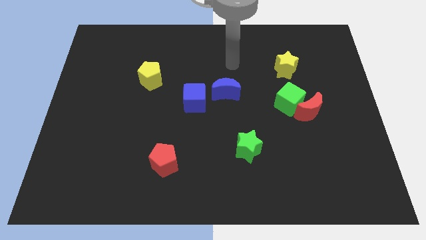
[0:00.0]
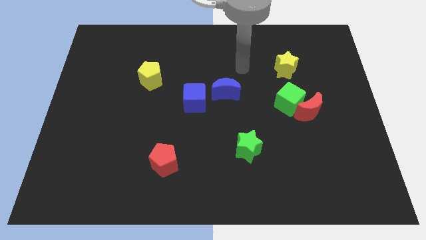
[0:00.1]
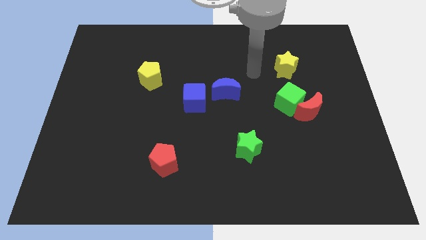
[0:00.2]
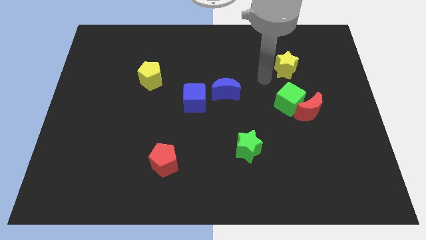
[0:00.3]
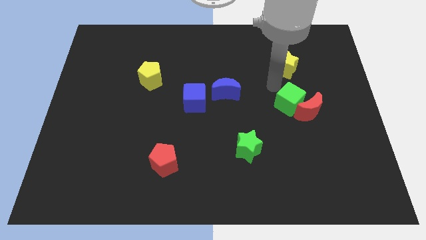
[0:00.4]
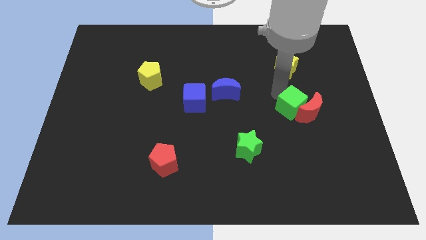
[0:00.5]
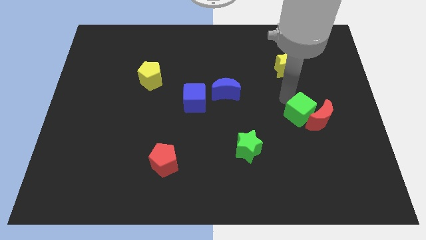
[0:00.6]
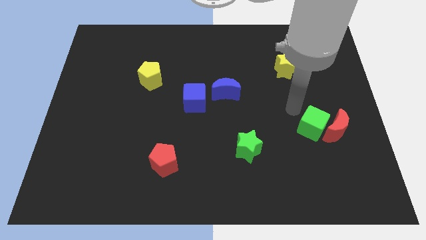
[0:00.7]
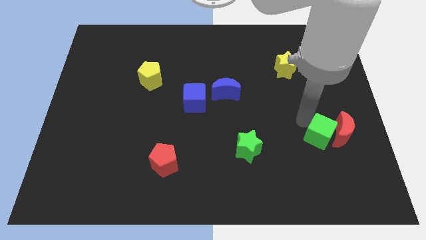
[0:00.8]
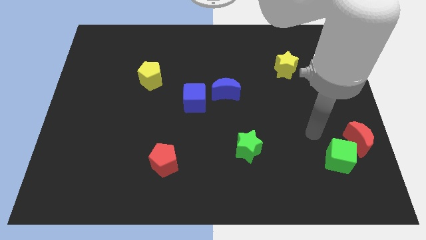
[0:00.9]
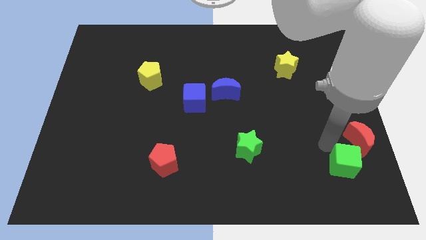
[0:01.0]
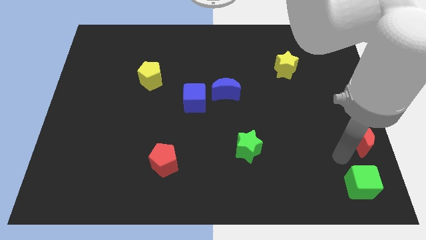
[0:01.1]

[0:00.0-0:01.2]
separate the red moon from the green cube

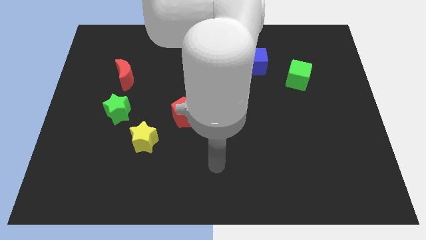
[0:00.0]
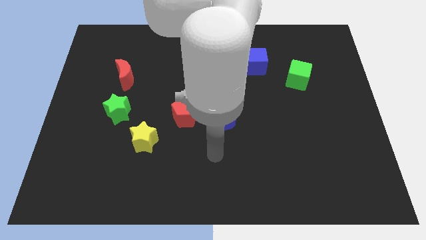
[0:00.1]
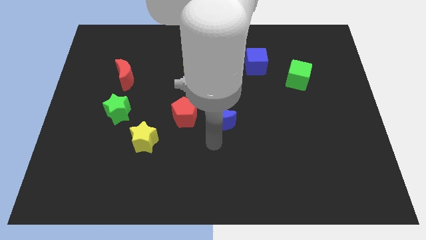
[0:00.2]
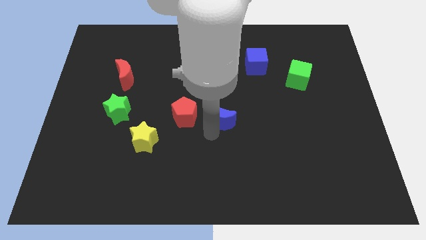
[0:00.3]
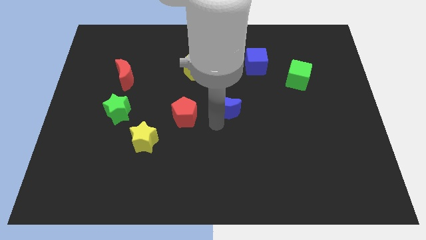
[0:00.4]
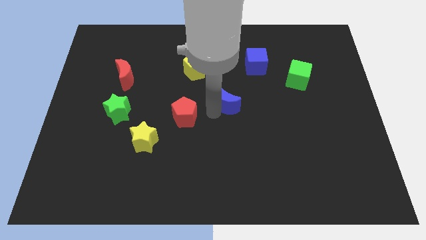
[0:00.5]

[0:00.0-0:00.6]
pull the red pentagon apart from the blue moon

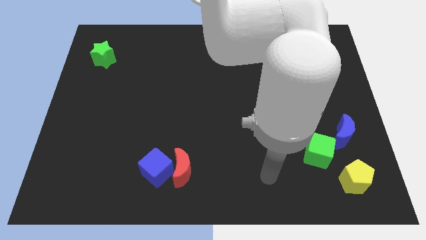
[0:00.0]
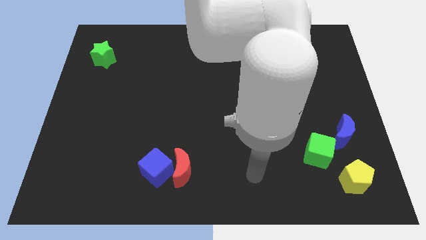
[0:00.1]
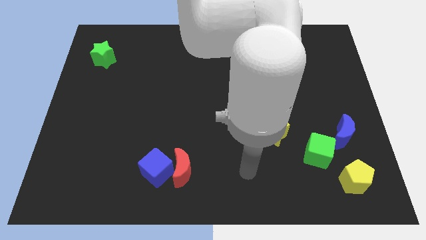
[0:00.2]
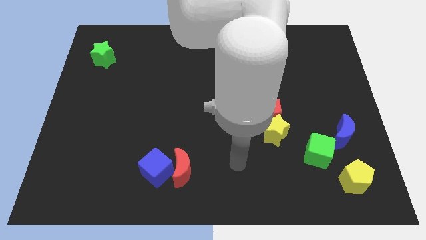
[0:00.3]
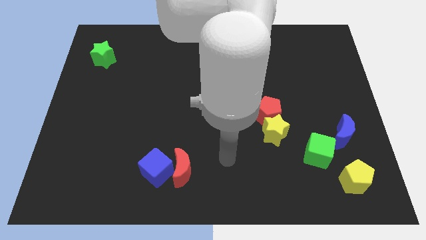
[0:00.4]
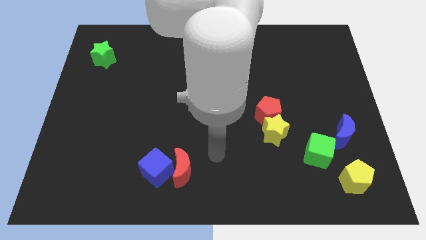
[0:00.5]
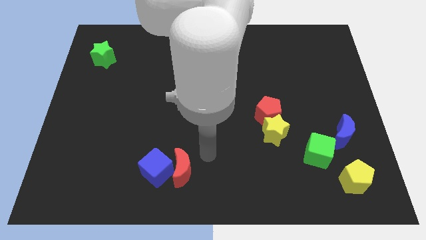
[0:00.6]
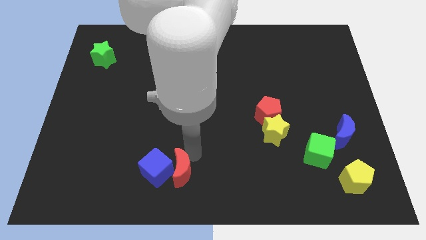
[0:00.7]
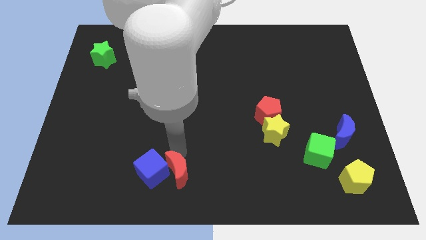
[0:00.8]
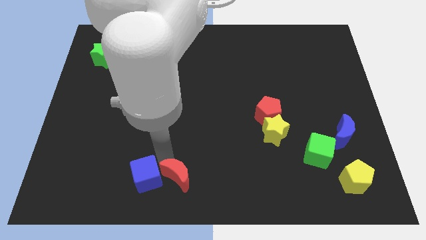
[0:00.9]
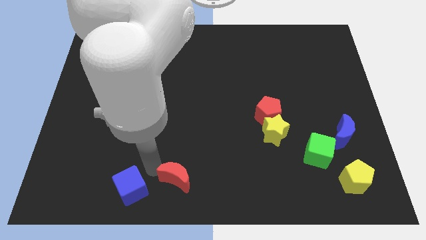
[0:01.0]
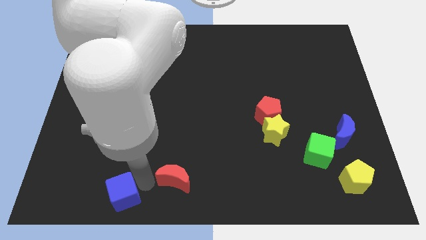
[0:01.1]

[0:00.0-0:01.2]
separate the red moon from the blue cube

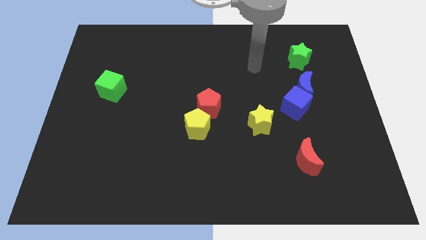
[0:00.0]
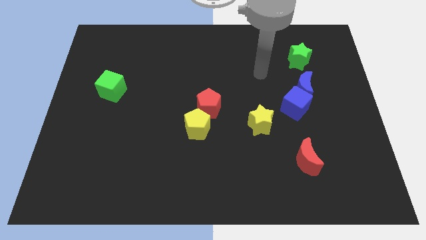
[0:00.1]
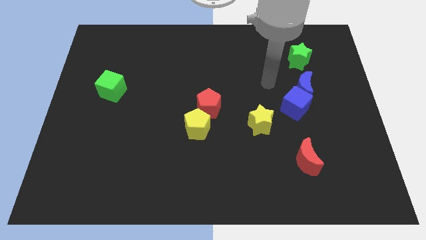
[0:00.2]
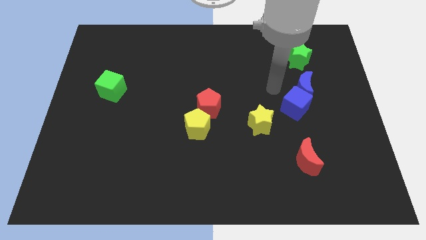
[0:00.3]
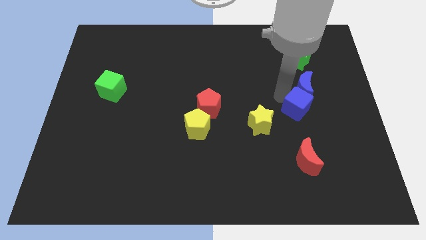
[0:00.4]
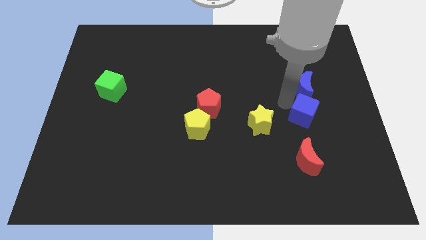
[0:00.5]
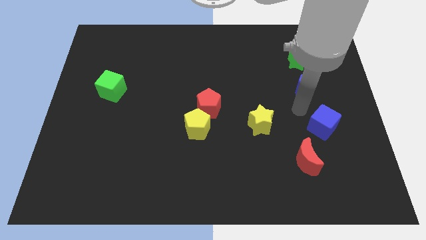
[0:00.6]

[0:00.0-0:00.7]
separate the blue moon from the blue cube

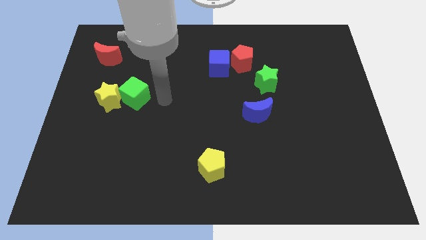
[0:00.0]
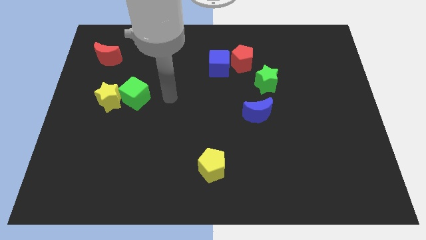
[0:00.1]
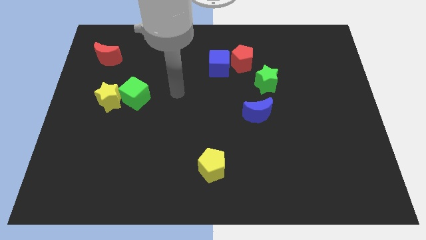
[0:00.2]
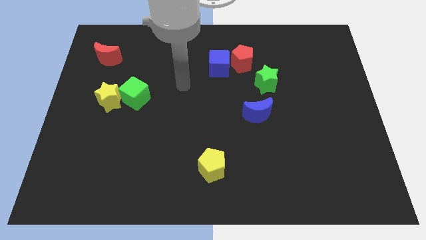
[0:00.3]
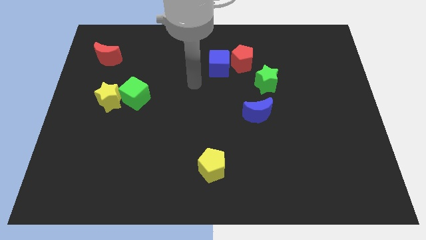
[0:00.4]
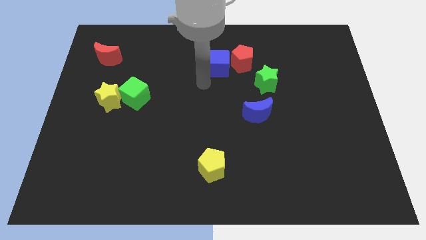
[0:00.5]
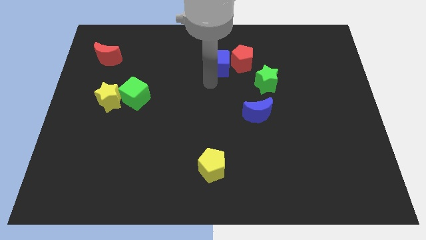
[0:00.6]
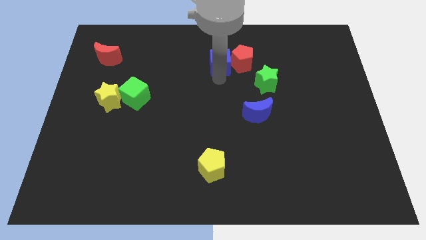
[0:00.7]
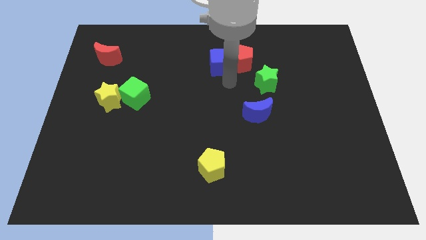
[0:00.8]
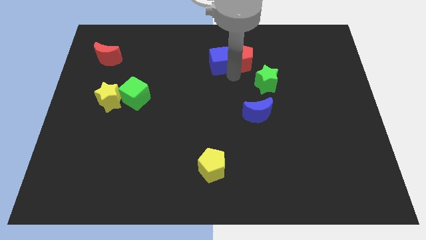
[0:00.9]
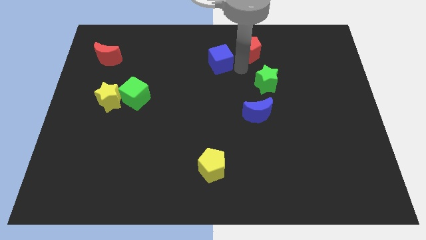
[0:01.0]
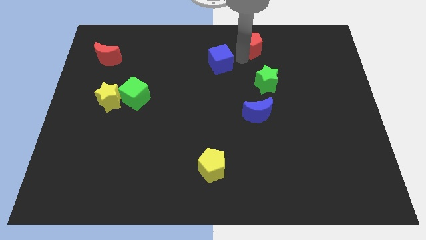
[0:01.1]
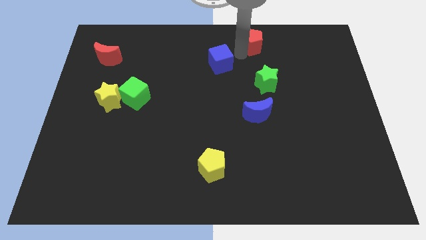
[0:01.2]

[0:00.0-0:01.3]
move the blue cube away from the red pentagon

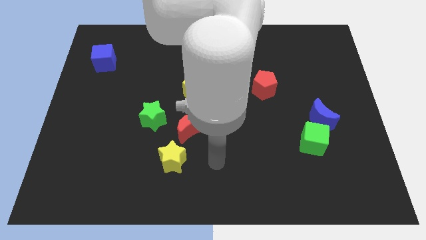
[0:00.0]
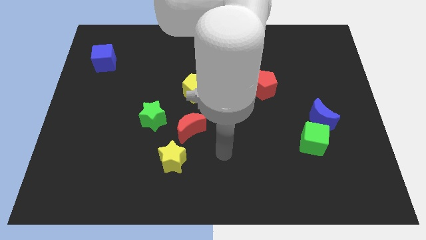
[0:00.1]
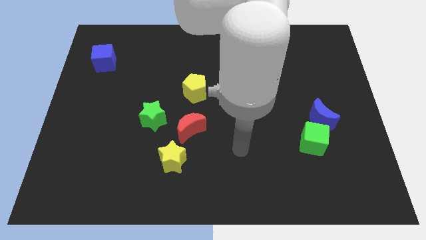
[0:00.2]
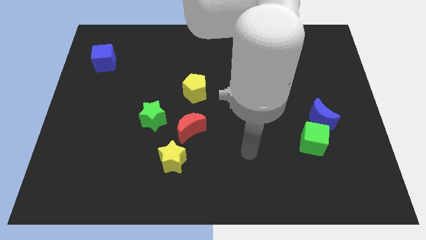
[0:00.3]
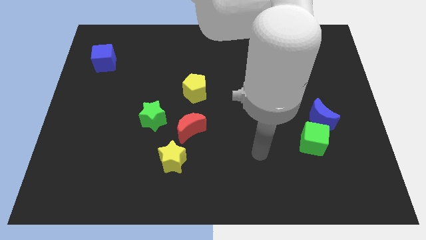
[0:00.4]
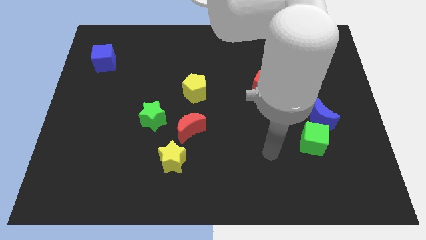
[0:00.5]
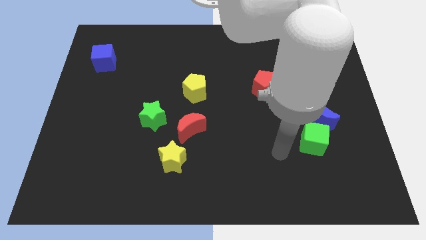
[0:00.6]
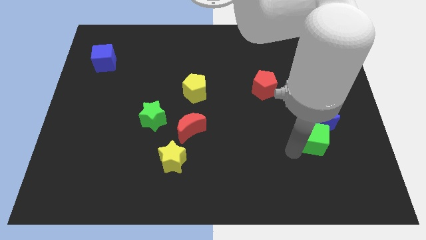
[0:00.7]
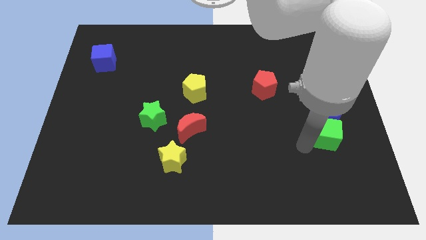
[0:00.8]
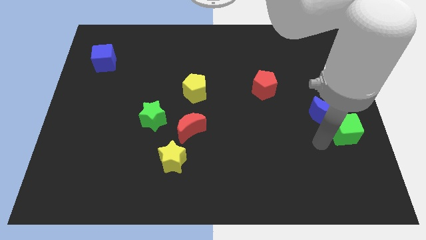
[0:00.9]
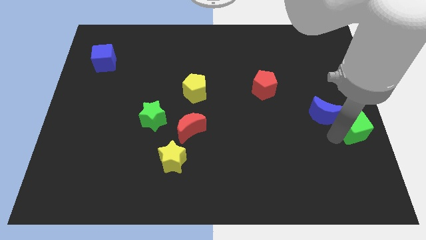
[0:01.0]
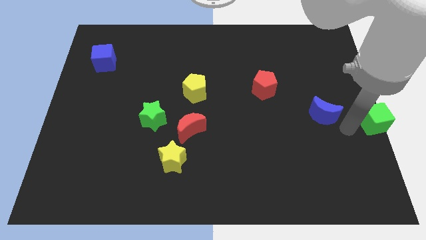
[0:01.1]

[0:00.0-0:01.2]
move the blue moon away from the green cube

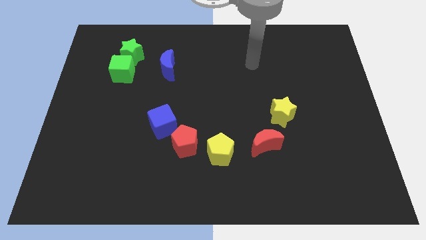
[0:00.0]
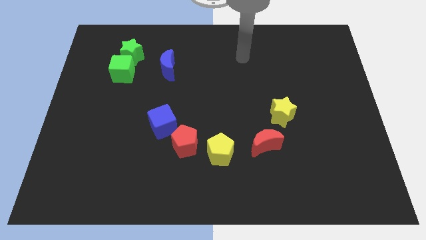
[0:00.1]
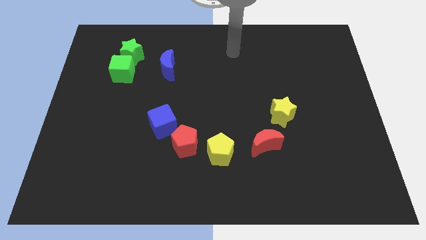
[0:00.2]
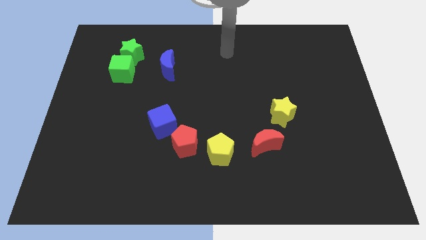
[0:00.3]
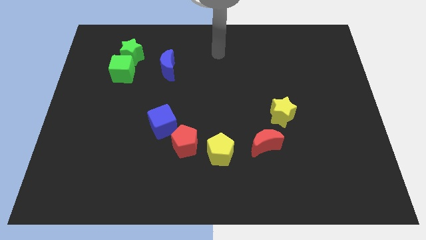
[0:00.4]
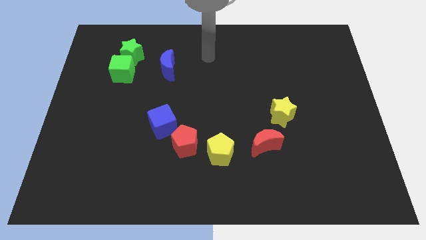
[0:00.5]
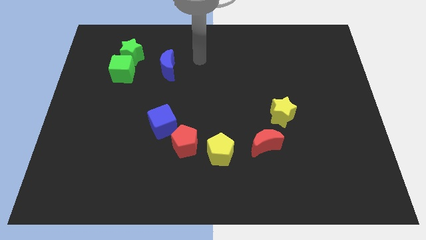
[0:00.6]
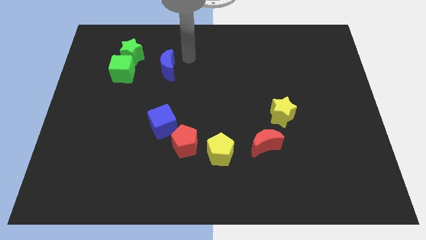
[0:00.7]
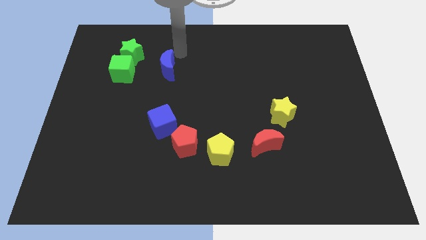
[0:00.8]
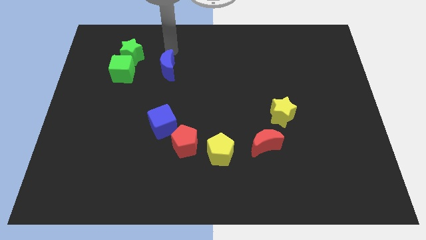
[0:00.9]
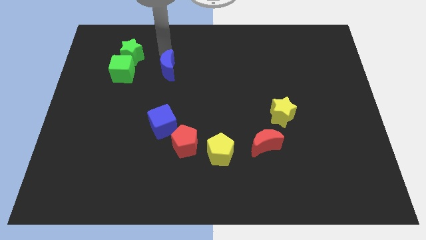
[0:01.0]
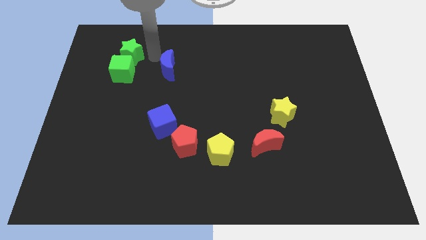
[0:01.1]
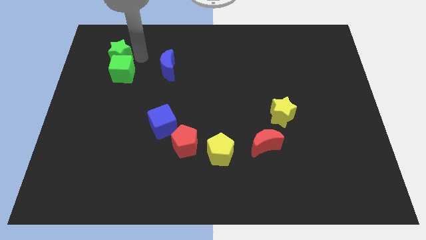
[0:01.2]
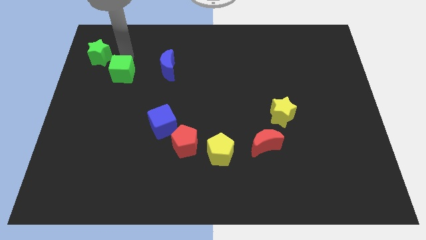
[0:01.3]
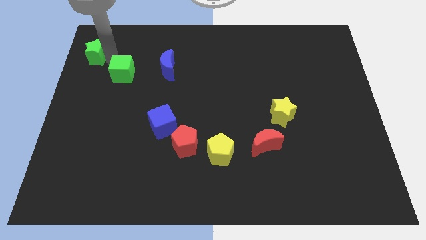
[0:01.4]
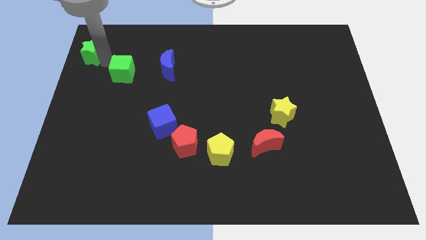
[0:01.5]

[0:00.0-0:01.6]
separate the green cube from the green star

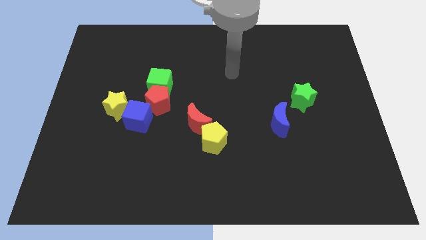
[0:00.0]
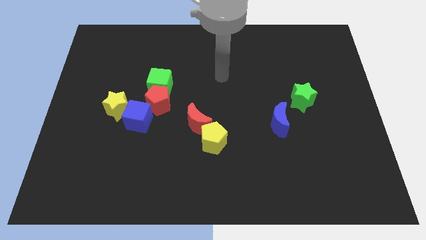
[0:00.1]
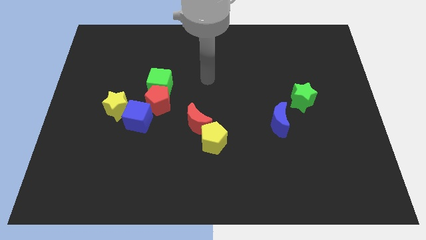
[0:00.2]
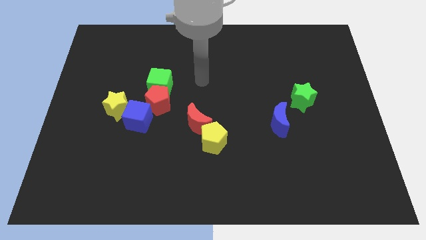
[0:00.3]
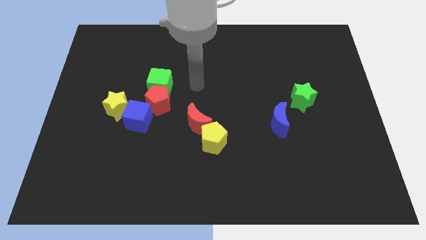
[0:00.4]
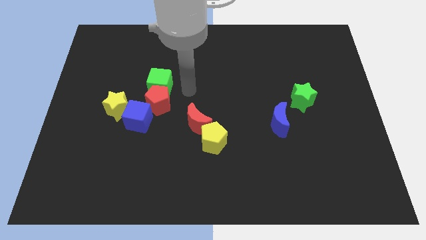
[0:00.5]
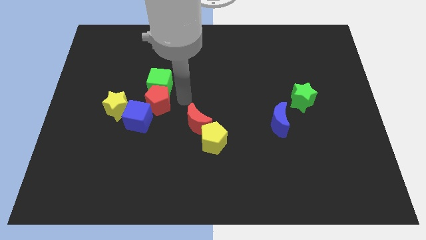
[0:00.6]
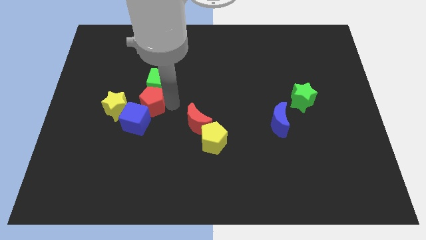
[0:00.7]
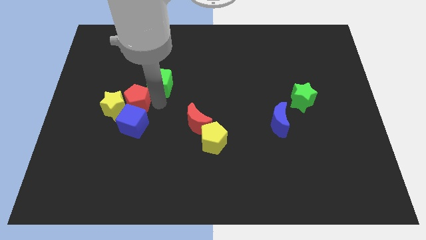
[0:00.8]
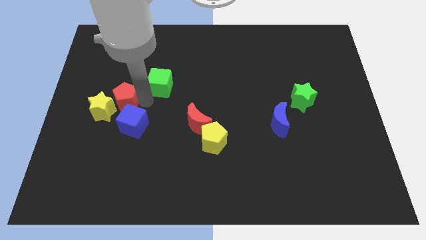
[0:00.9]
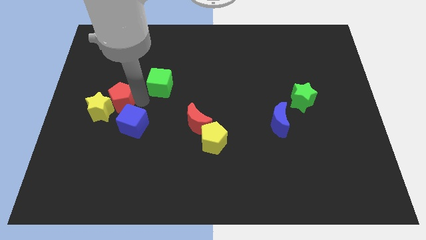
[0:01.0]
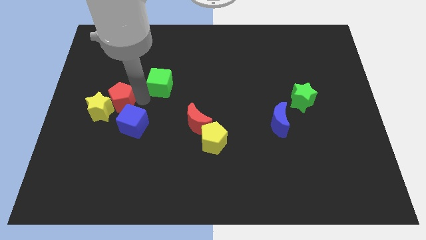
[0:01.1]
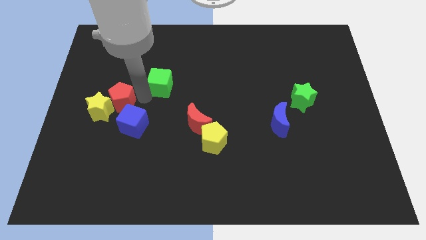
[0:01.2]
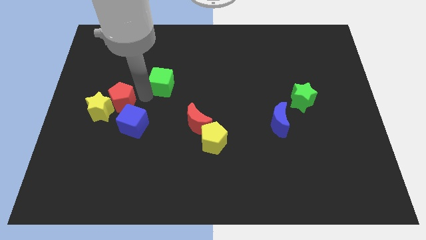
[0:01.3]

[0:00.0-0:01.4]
move the green cube away from the red pentagon
